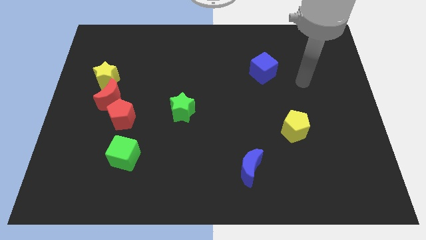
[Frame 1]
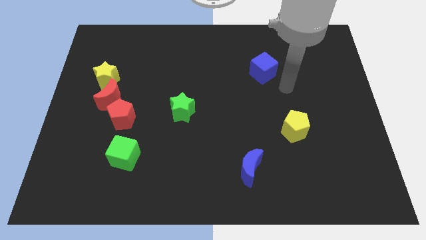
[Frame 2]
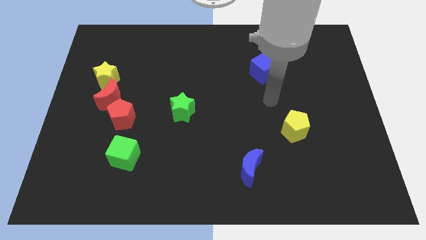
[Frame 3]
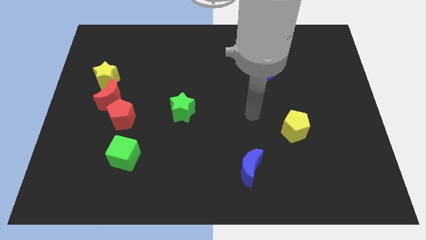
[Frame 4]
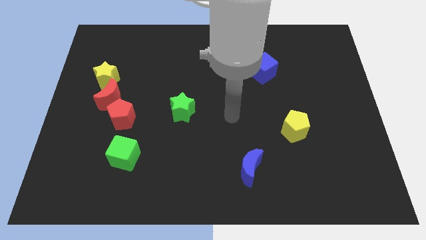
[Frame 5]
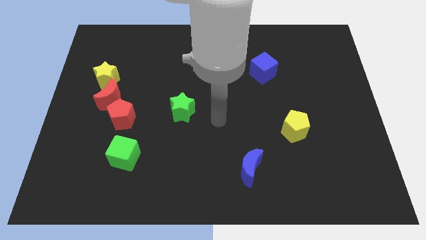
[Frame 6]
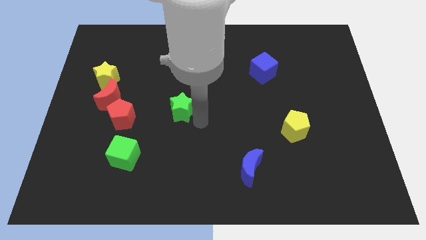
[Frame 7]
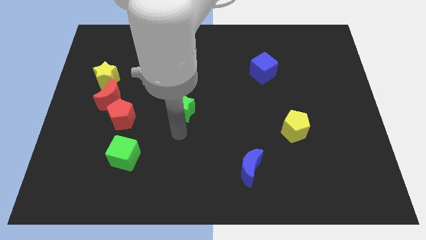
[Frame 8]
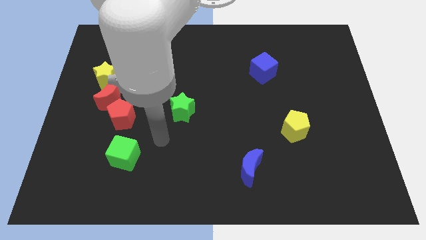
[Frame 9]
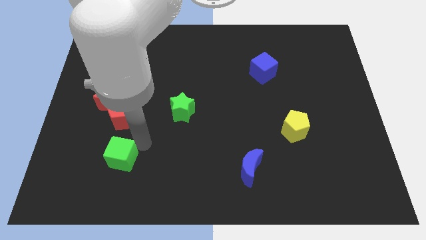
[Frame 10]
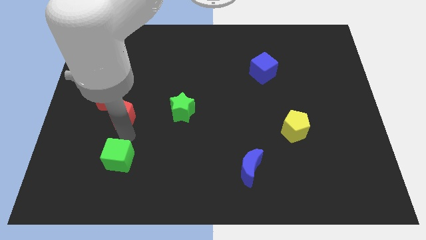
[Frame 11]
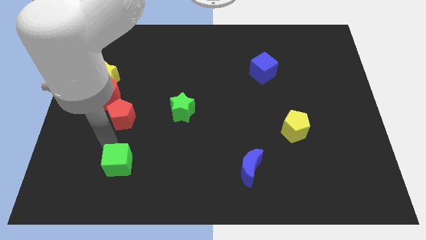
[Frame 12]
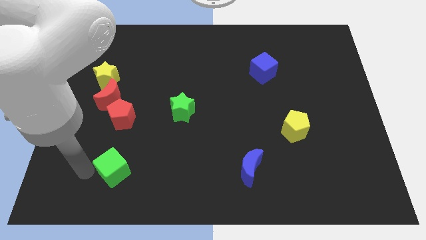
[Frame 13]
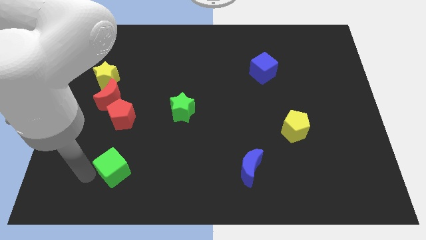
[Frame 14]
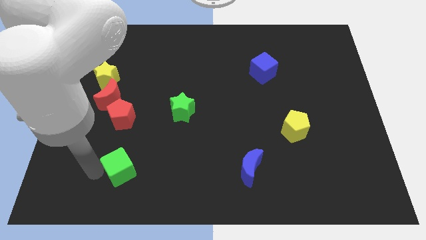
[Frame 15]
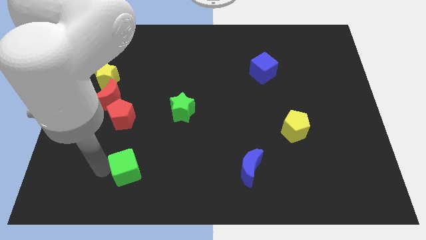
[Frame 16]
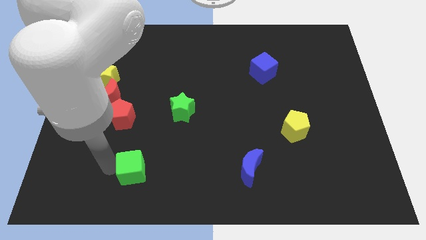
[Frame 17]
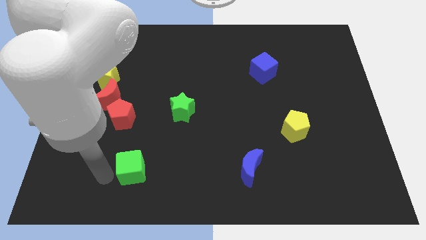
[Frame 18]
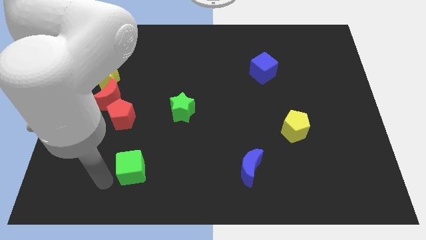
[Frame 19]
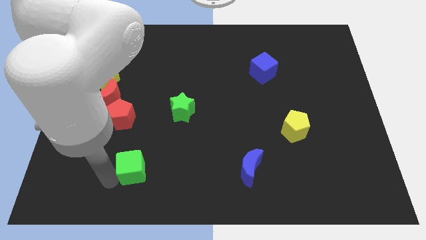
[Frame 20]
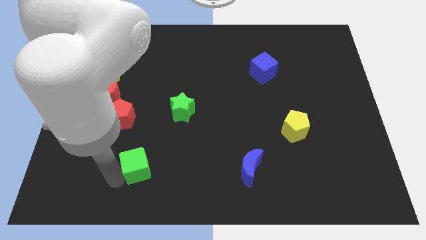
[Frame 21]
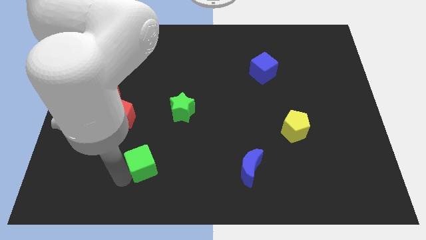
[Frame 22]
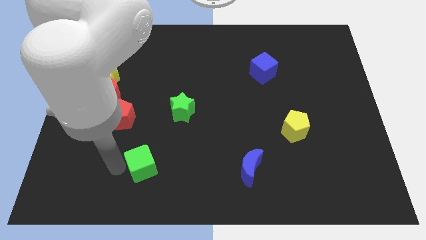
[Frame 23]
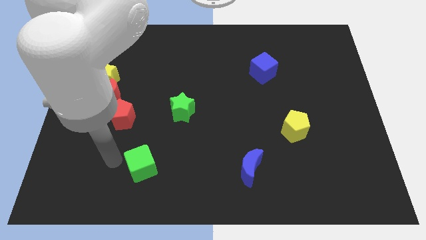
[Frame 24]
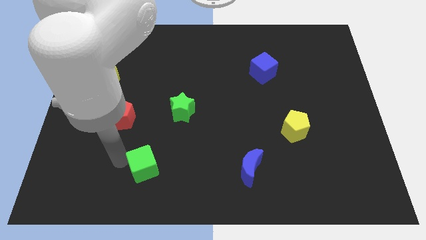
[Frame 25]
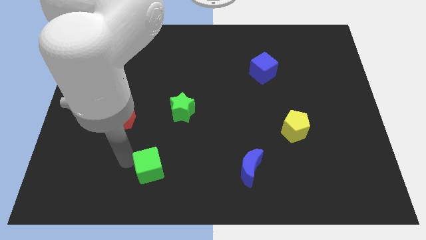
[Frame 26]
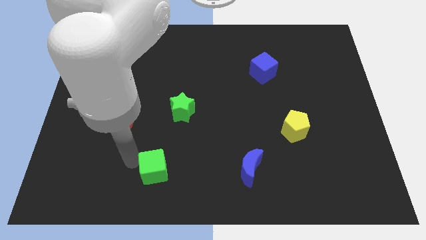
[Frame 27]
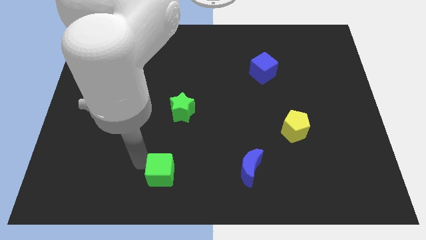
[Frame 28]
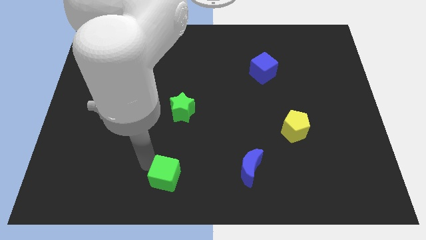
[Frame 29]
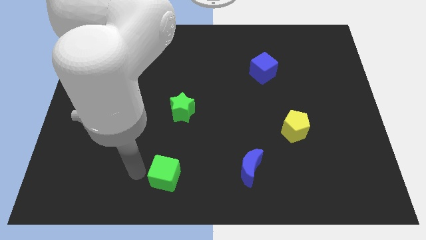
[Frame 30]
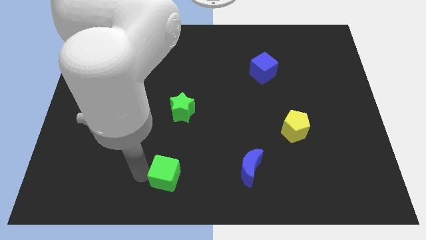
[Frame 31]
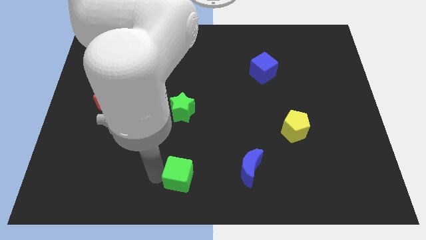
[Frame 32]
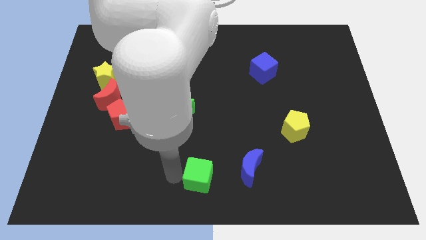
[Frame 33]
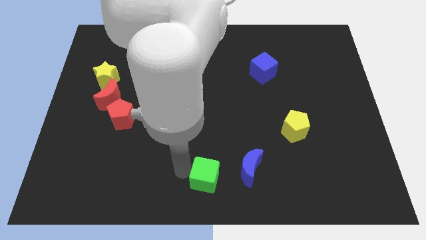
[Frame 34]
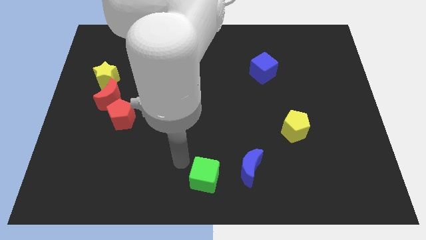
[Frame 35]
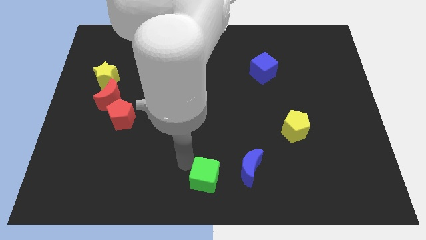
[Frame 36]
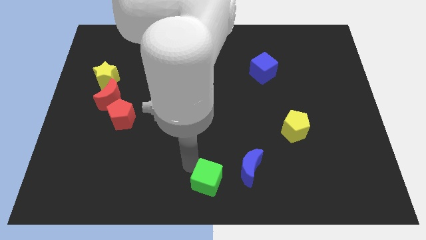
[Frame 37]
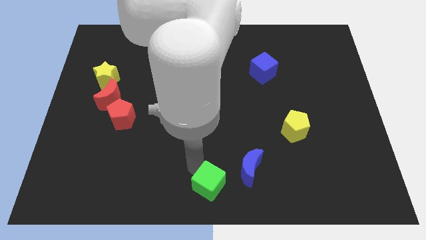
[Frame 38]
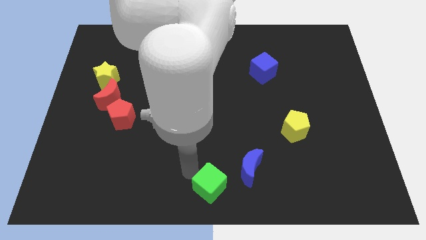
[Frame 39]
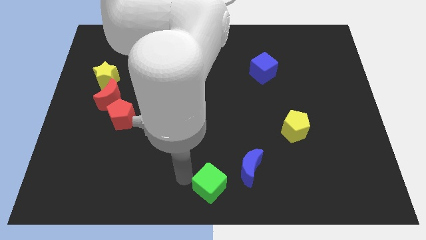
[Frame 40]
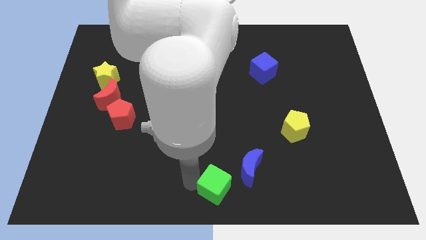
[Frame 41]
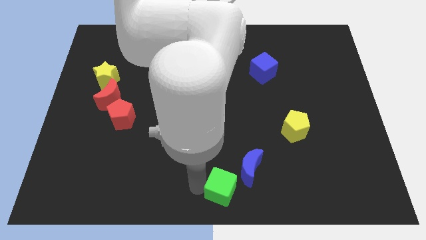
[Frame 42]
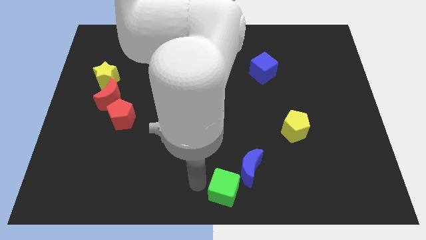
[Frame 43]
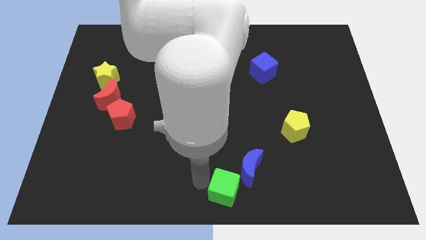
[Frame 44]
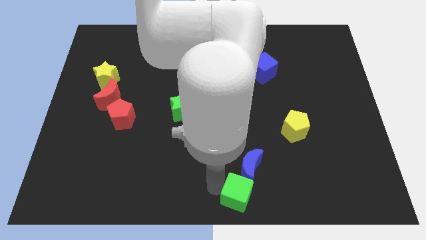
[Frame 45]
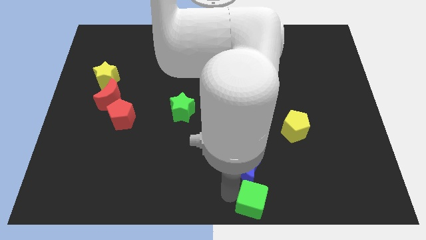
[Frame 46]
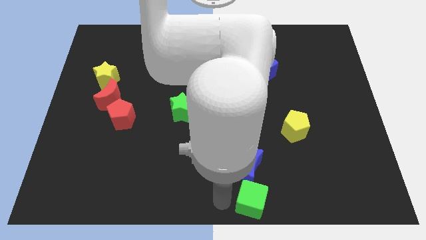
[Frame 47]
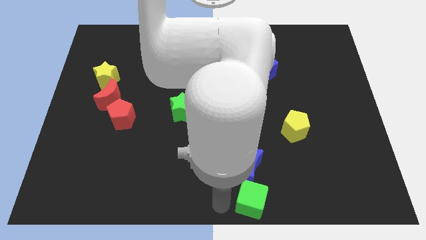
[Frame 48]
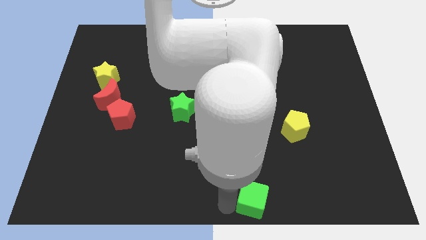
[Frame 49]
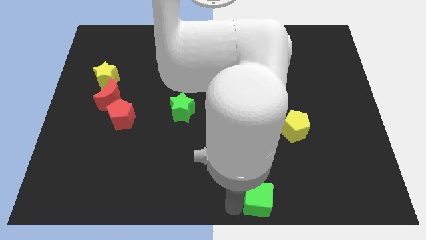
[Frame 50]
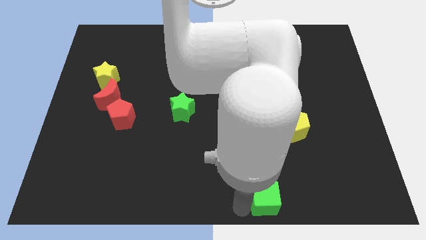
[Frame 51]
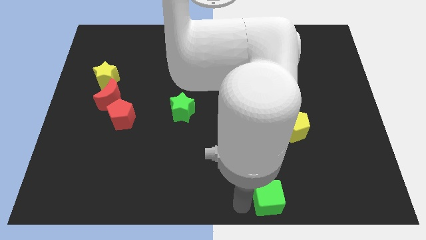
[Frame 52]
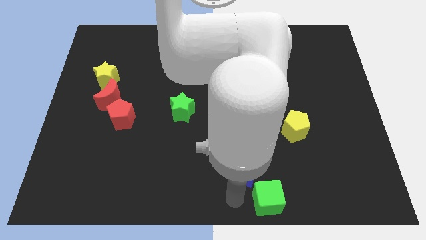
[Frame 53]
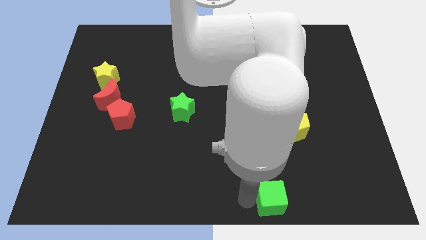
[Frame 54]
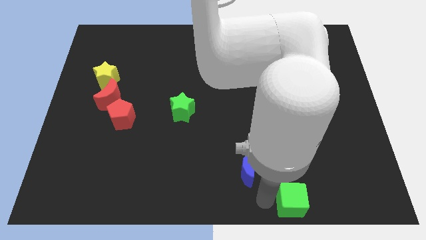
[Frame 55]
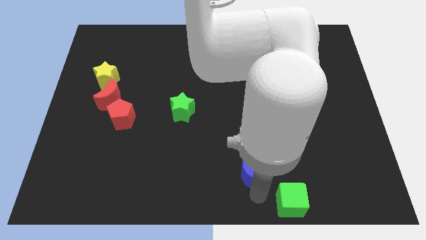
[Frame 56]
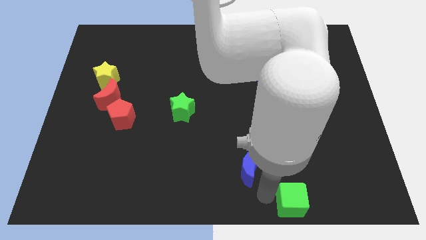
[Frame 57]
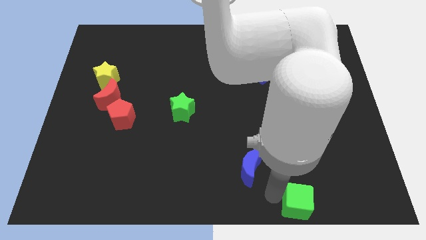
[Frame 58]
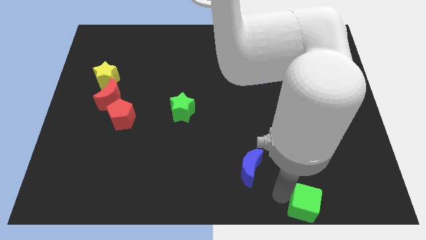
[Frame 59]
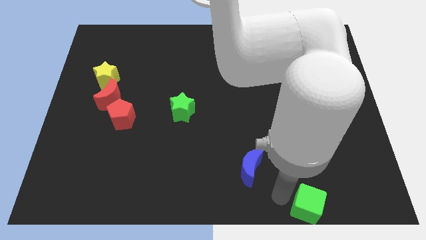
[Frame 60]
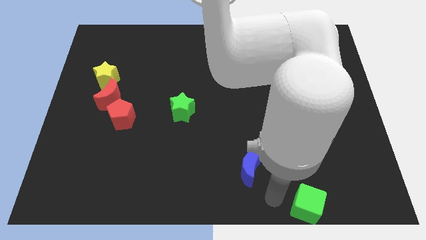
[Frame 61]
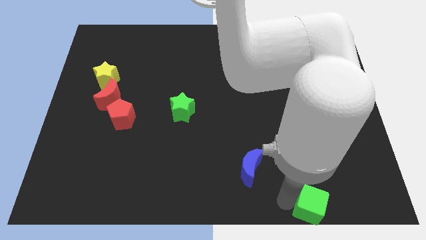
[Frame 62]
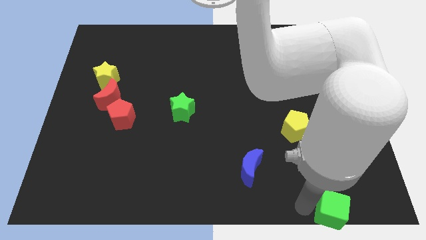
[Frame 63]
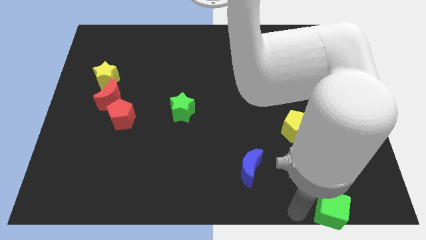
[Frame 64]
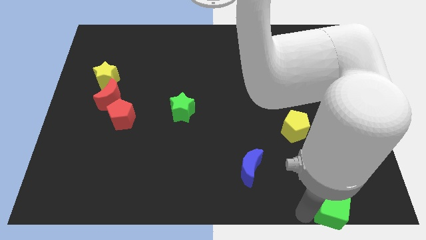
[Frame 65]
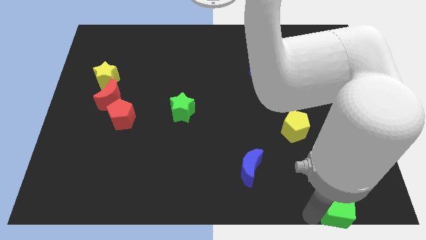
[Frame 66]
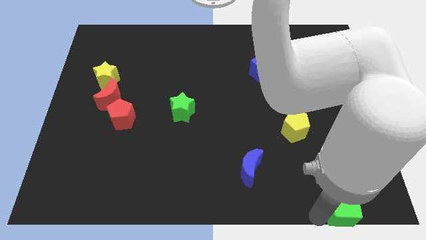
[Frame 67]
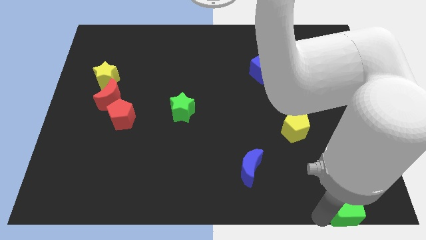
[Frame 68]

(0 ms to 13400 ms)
put the green cube to the bottom right
